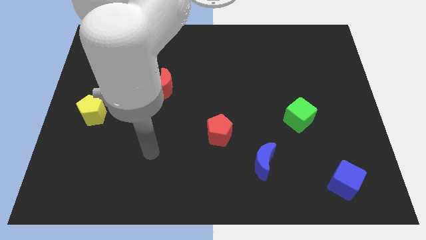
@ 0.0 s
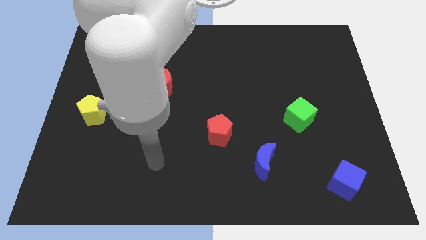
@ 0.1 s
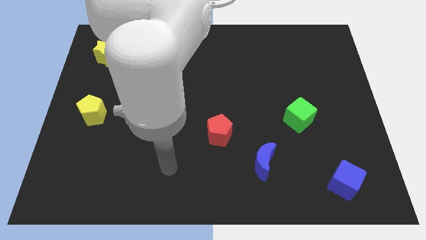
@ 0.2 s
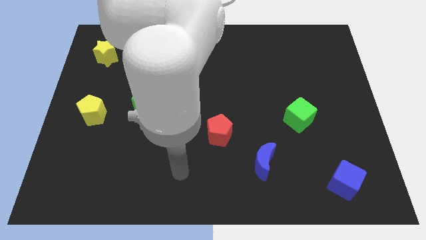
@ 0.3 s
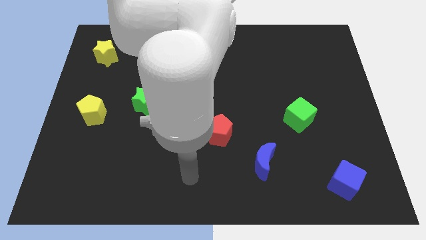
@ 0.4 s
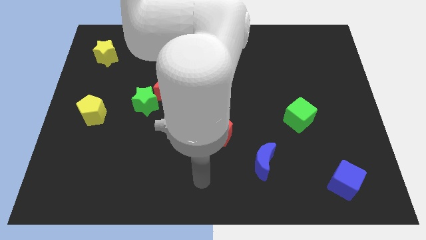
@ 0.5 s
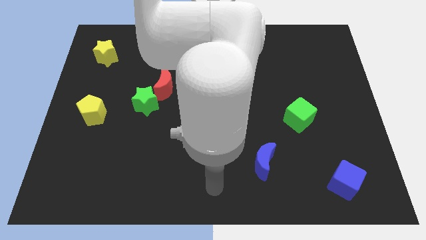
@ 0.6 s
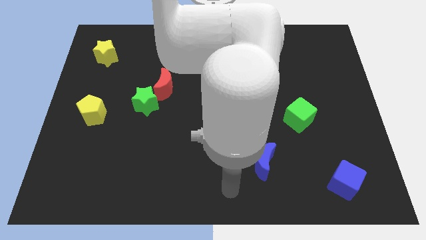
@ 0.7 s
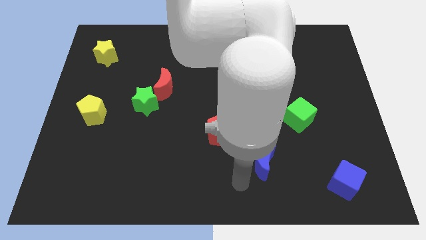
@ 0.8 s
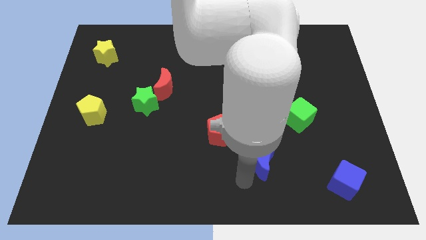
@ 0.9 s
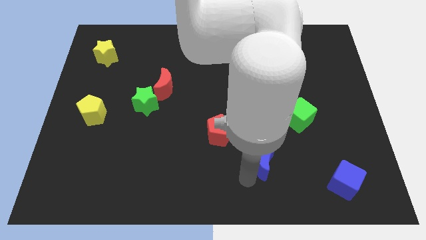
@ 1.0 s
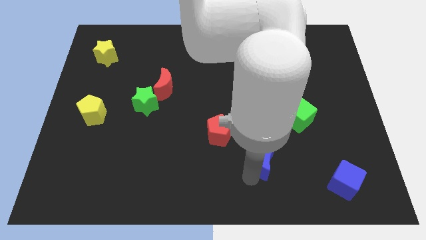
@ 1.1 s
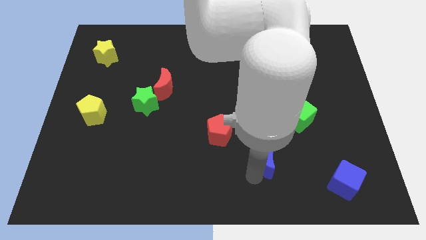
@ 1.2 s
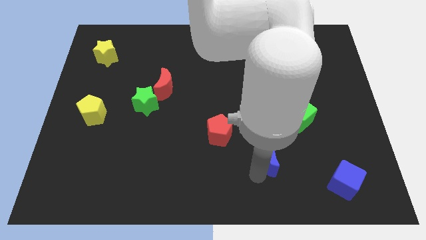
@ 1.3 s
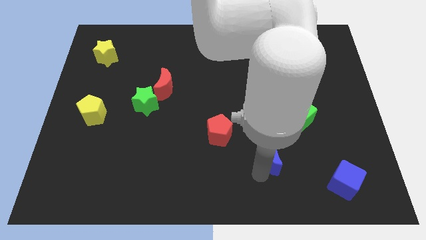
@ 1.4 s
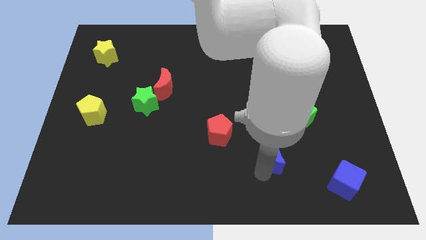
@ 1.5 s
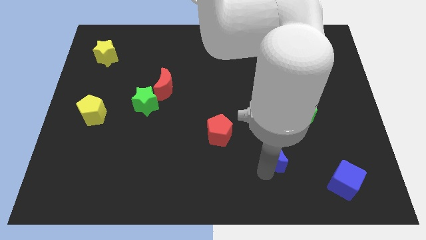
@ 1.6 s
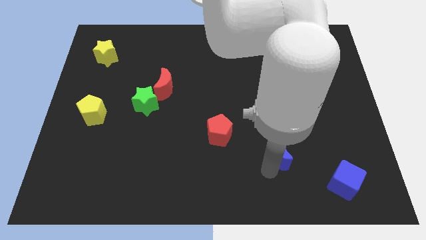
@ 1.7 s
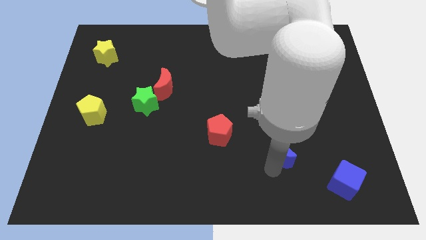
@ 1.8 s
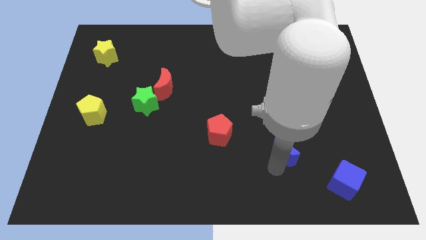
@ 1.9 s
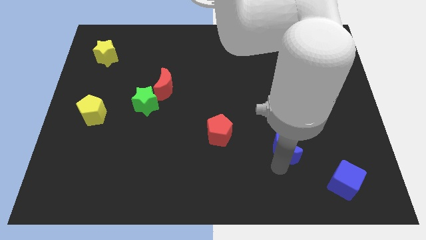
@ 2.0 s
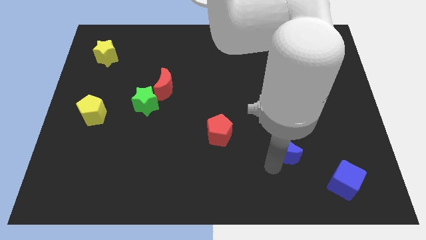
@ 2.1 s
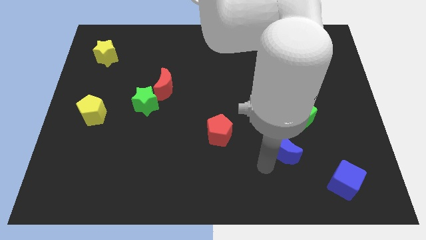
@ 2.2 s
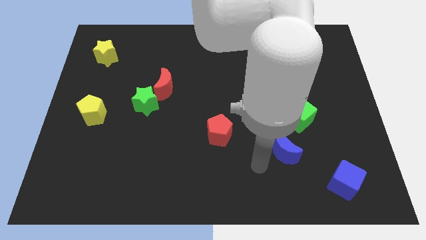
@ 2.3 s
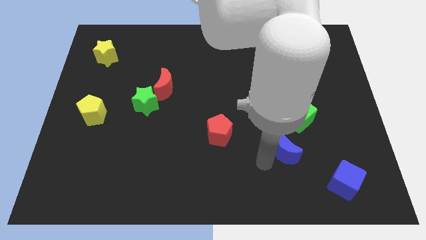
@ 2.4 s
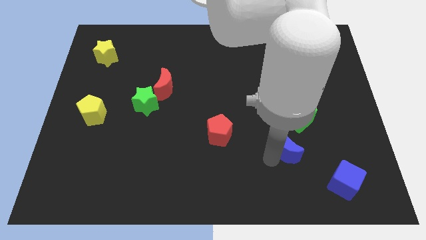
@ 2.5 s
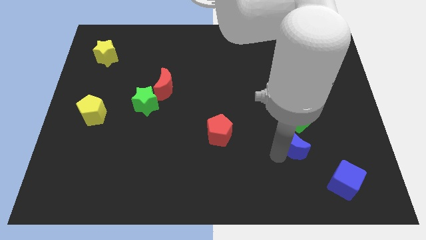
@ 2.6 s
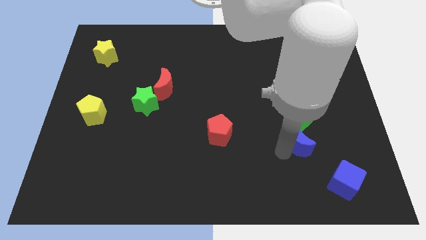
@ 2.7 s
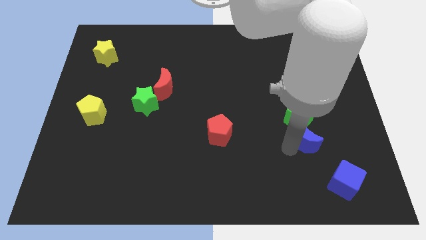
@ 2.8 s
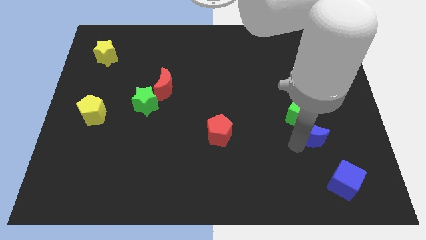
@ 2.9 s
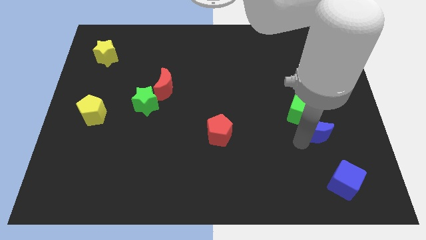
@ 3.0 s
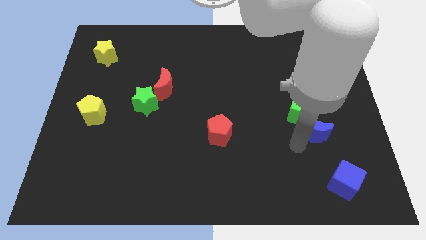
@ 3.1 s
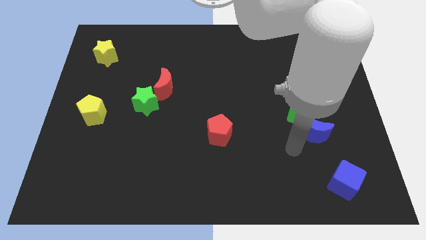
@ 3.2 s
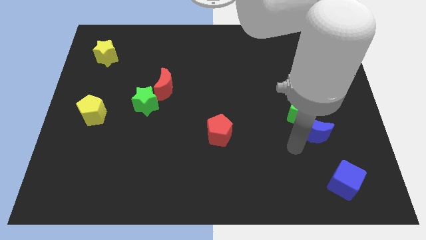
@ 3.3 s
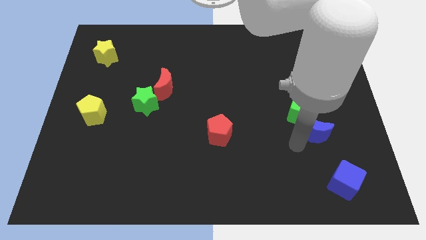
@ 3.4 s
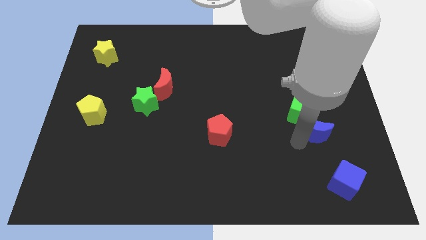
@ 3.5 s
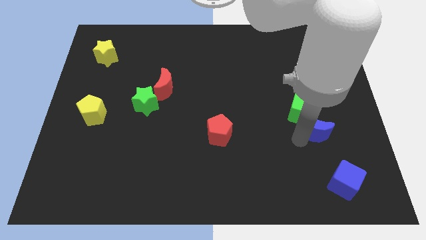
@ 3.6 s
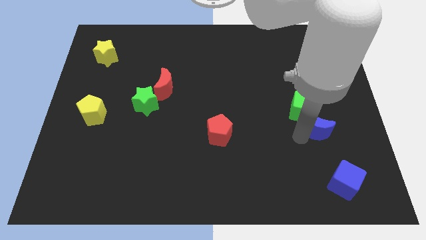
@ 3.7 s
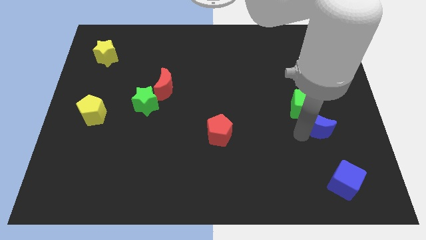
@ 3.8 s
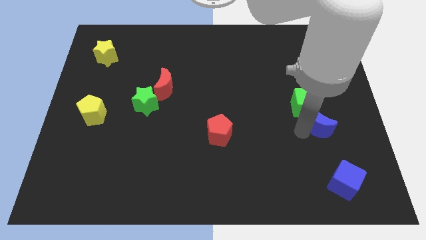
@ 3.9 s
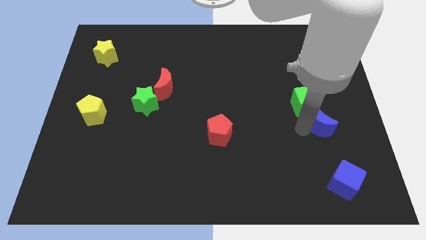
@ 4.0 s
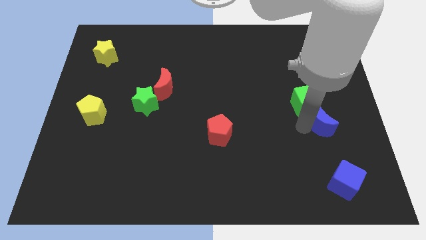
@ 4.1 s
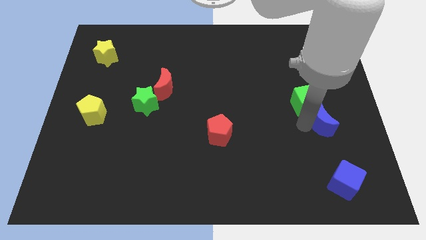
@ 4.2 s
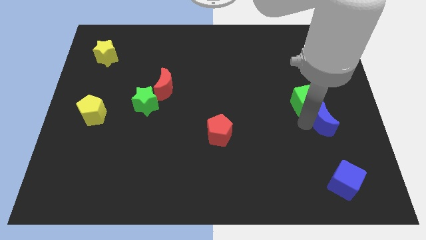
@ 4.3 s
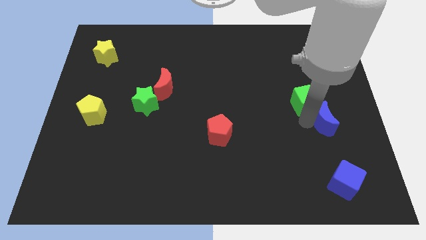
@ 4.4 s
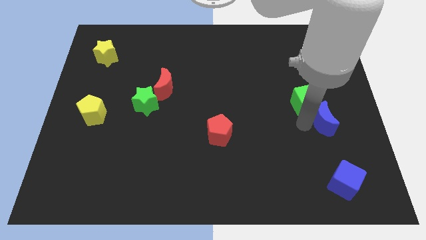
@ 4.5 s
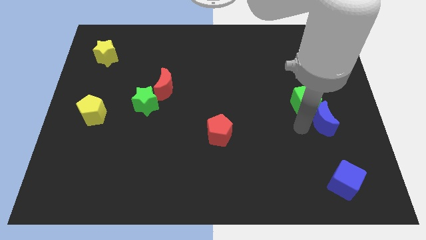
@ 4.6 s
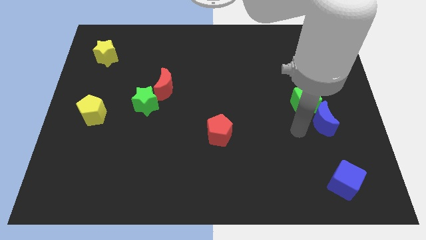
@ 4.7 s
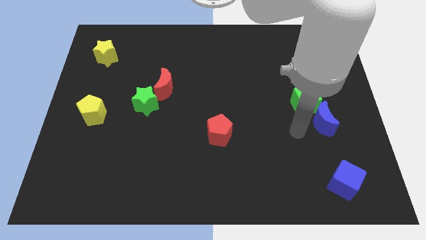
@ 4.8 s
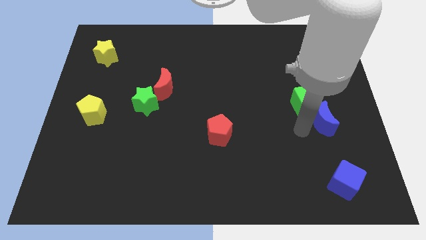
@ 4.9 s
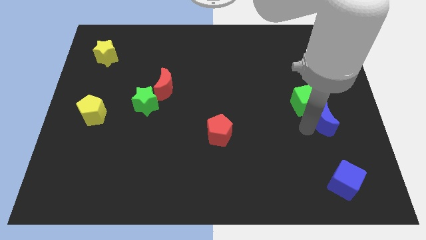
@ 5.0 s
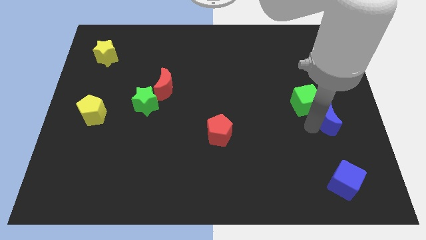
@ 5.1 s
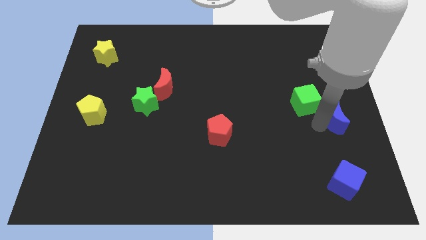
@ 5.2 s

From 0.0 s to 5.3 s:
push the blue moon to the right side of the board

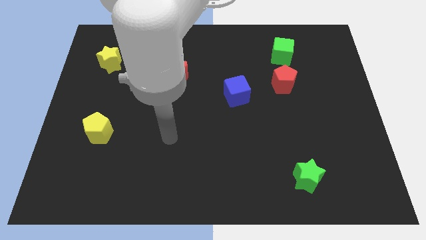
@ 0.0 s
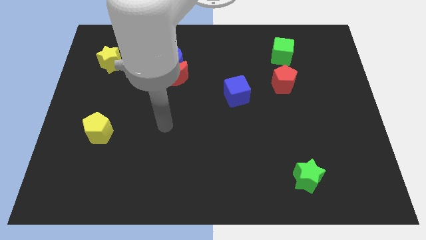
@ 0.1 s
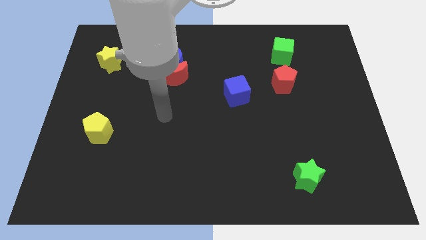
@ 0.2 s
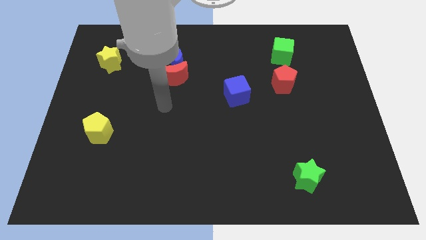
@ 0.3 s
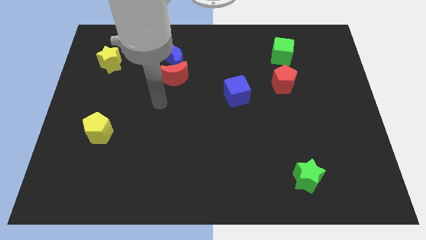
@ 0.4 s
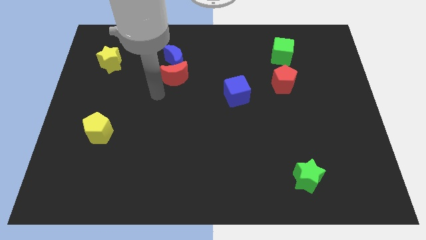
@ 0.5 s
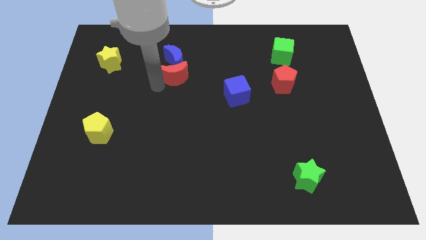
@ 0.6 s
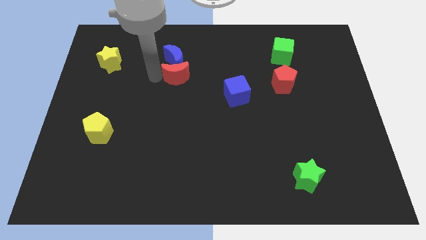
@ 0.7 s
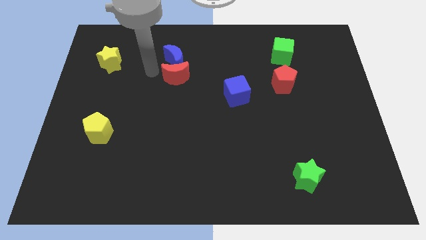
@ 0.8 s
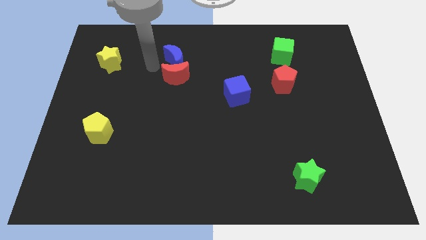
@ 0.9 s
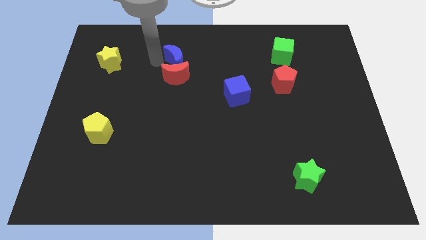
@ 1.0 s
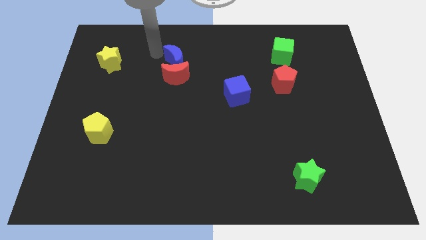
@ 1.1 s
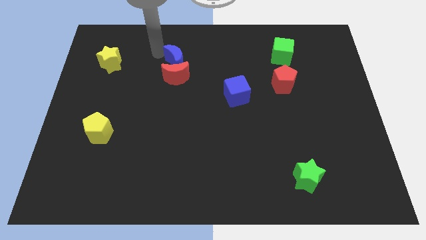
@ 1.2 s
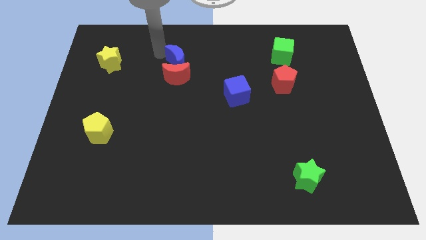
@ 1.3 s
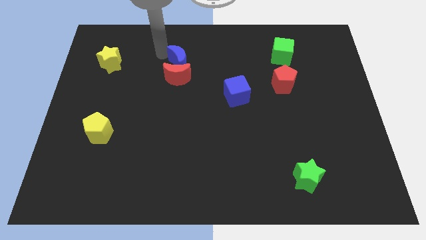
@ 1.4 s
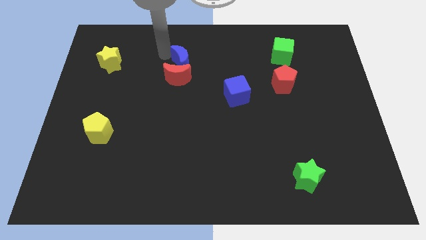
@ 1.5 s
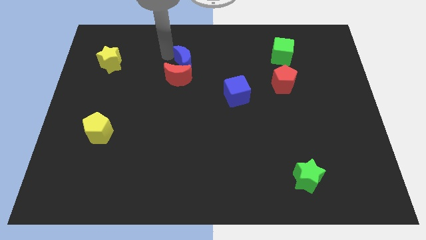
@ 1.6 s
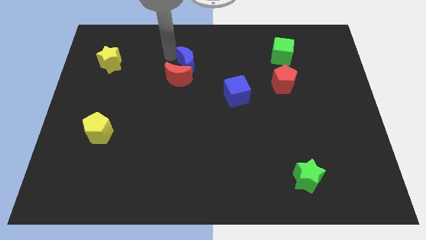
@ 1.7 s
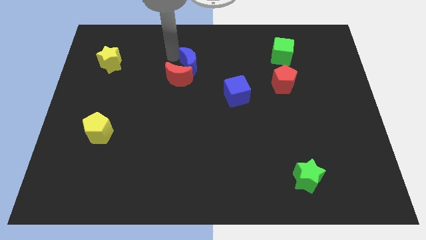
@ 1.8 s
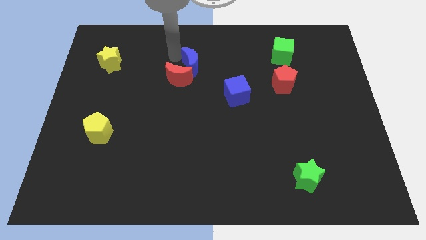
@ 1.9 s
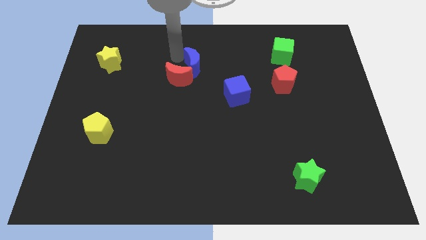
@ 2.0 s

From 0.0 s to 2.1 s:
put the blue moon to the middle of the board
